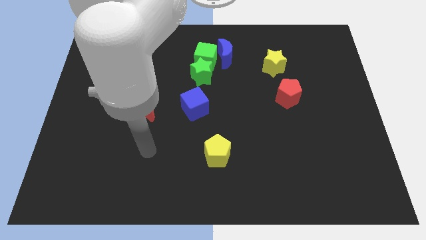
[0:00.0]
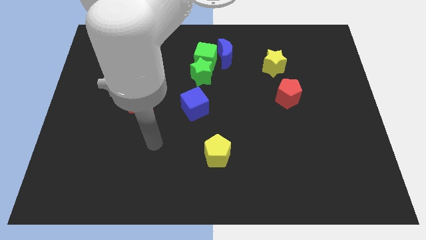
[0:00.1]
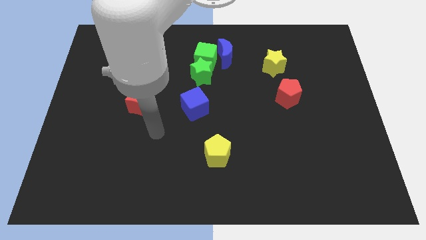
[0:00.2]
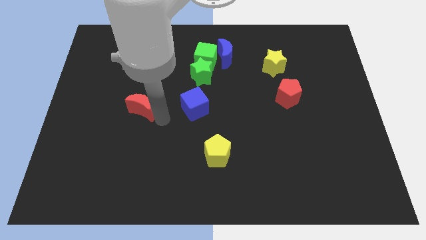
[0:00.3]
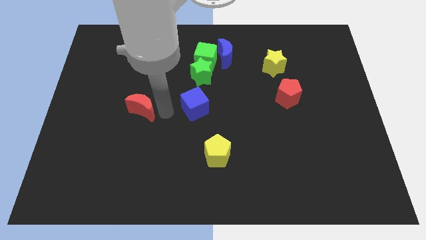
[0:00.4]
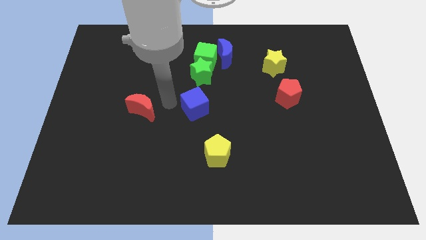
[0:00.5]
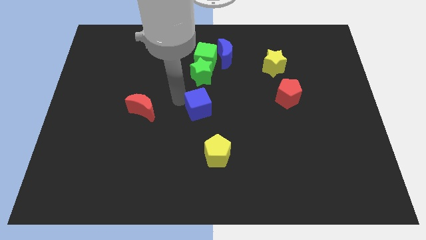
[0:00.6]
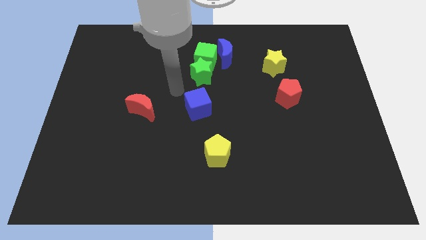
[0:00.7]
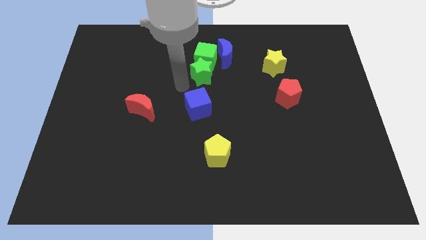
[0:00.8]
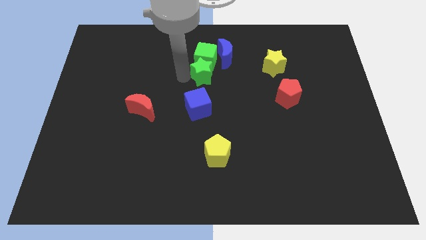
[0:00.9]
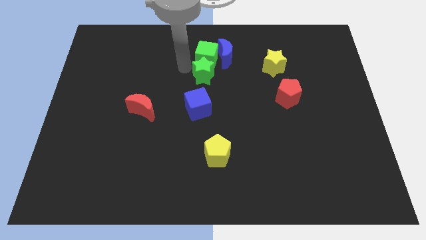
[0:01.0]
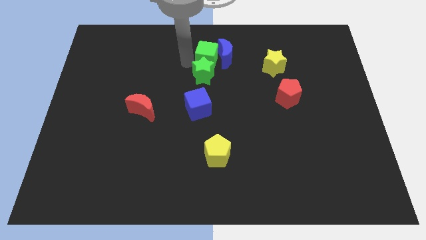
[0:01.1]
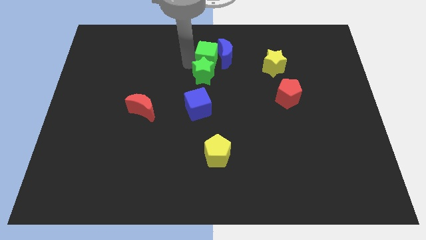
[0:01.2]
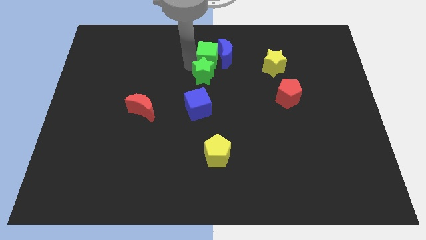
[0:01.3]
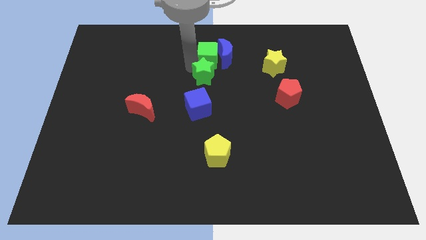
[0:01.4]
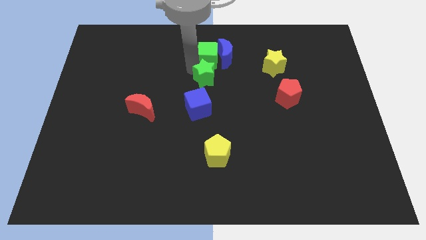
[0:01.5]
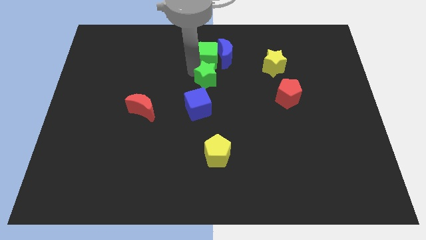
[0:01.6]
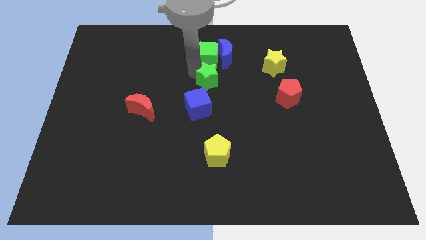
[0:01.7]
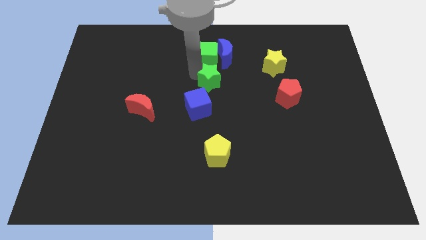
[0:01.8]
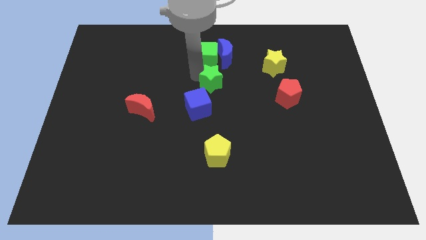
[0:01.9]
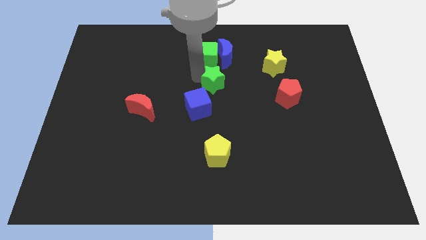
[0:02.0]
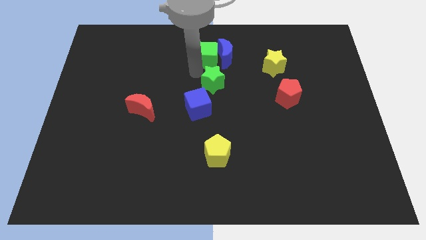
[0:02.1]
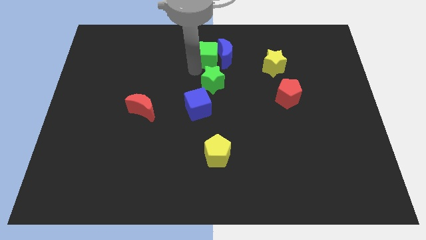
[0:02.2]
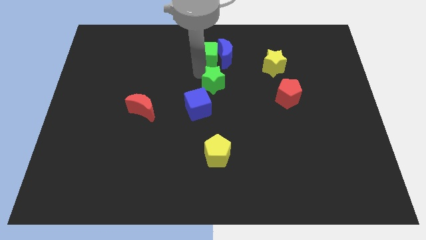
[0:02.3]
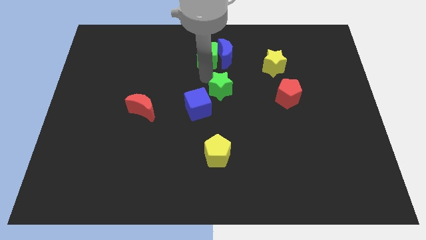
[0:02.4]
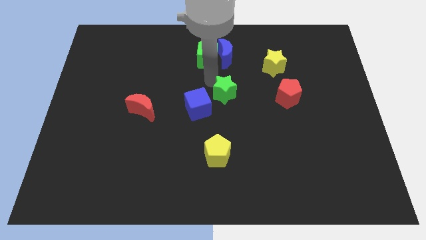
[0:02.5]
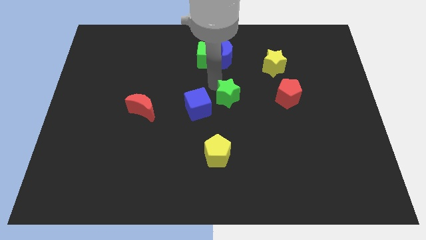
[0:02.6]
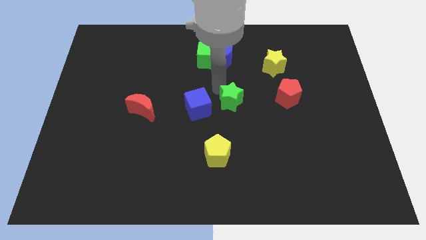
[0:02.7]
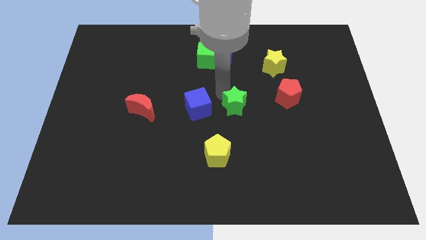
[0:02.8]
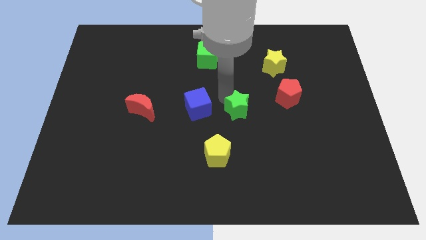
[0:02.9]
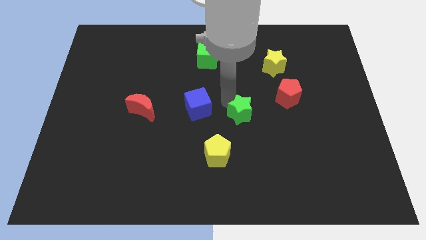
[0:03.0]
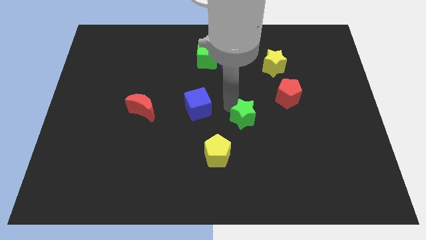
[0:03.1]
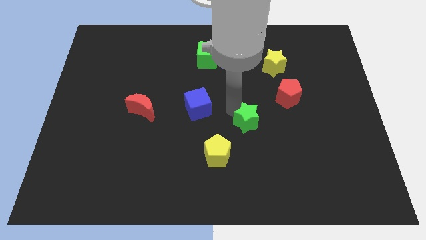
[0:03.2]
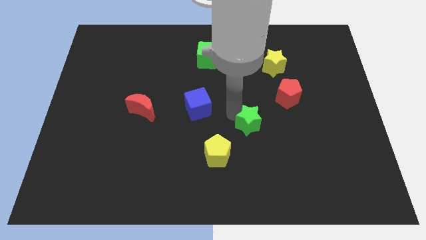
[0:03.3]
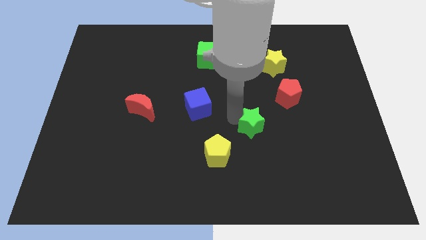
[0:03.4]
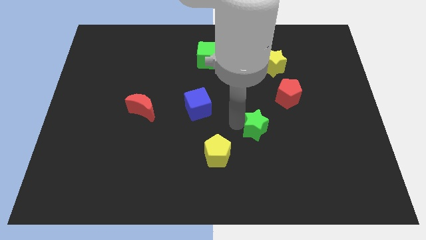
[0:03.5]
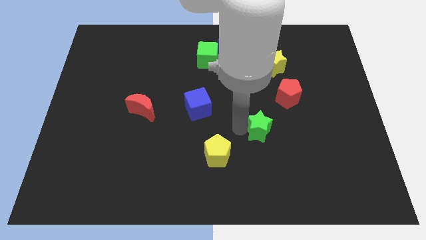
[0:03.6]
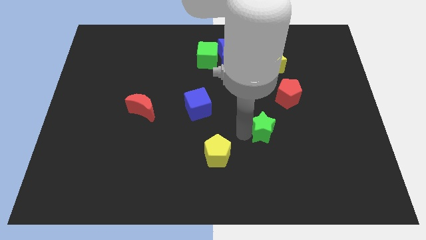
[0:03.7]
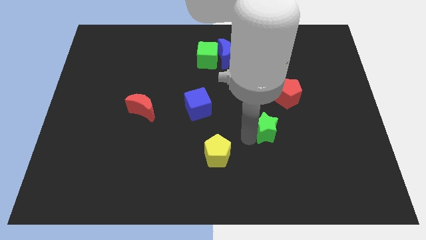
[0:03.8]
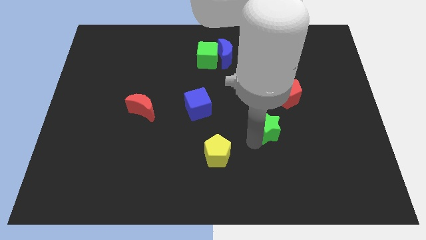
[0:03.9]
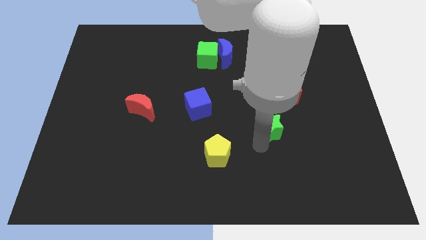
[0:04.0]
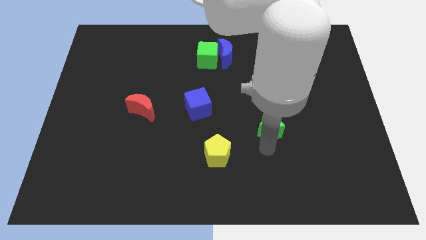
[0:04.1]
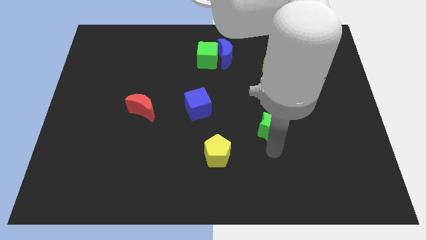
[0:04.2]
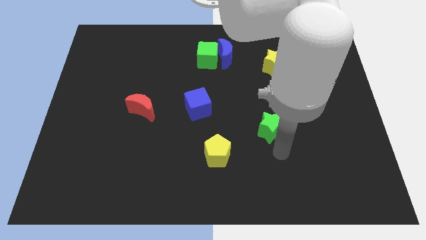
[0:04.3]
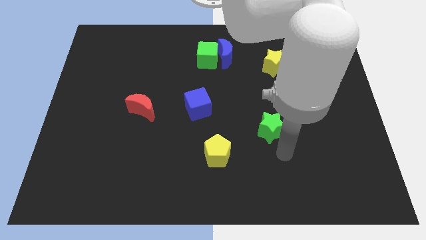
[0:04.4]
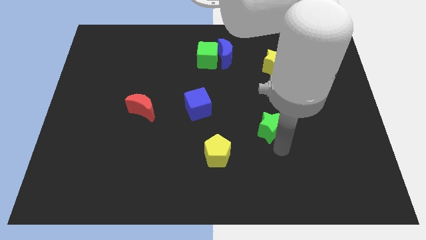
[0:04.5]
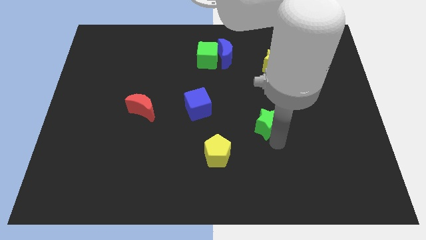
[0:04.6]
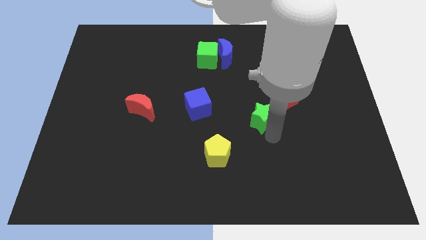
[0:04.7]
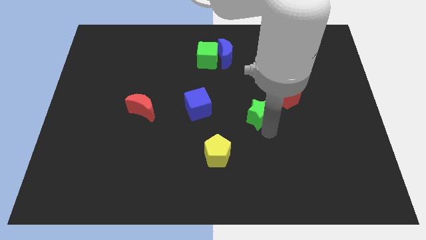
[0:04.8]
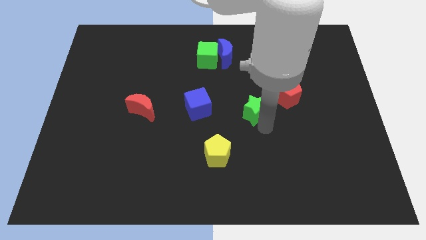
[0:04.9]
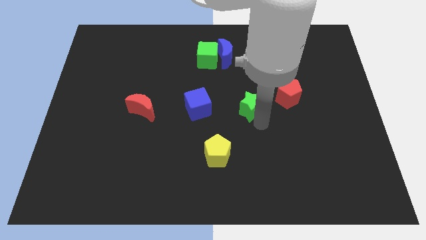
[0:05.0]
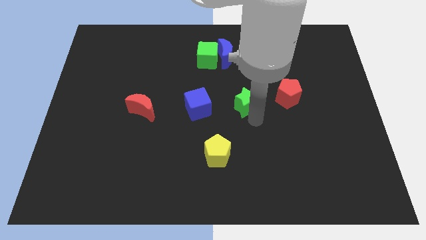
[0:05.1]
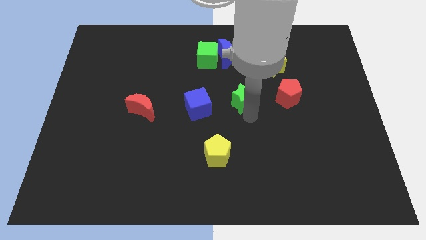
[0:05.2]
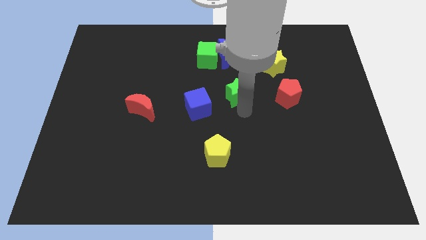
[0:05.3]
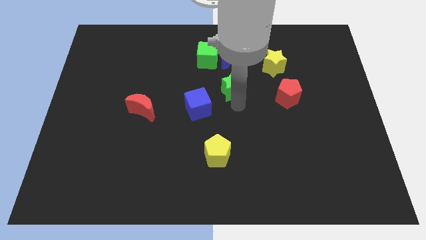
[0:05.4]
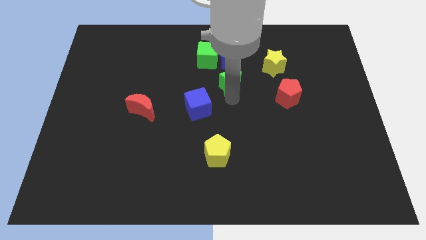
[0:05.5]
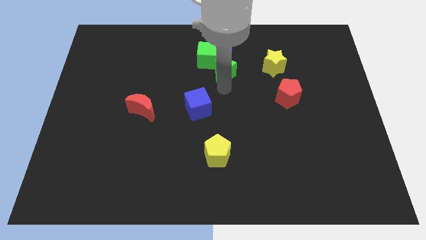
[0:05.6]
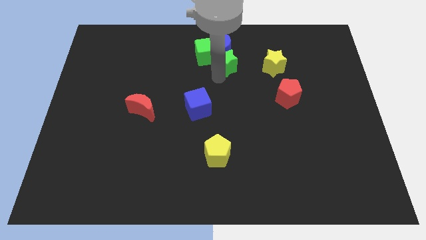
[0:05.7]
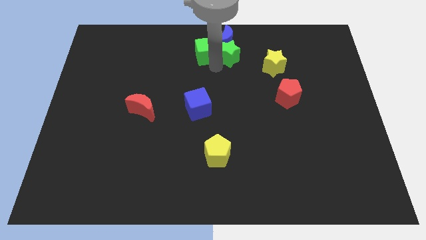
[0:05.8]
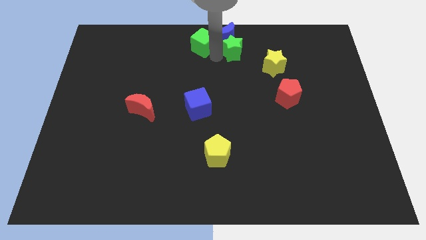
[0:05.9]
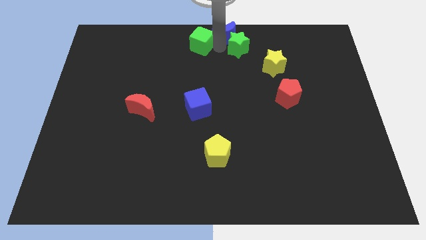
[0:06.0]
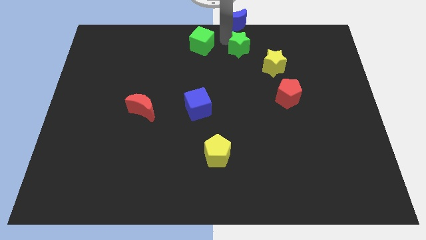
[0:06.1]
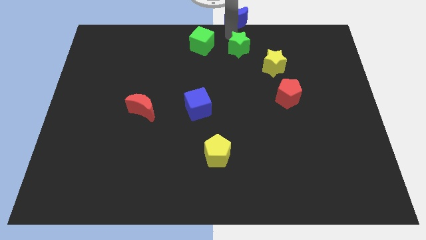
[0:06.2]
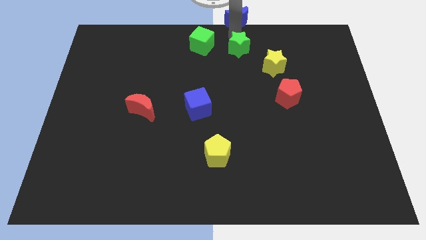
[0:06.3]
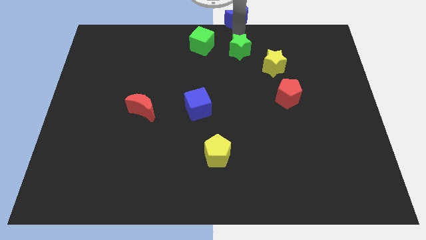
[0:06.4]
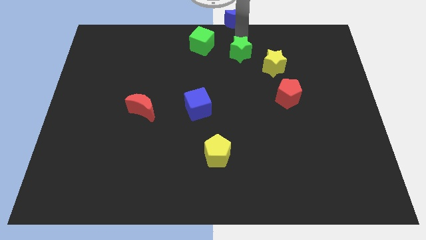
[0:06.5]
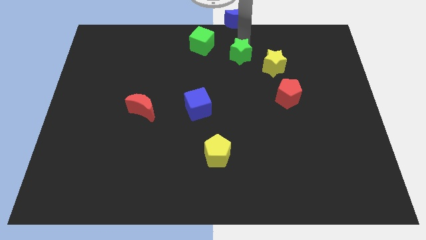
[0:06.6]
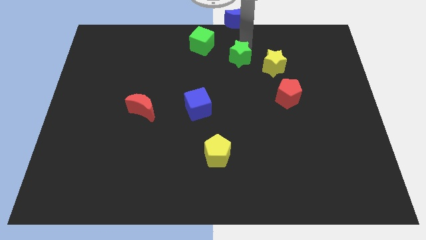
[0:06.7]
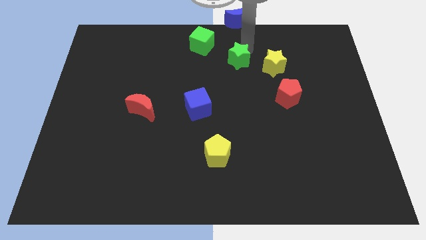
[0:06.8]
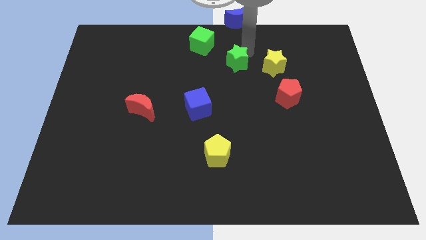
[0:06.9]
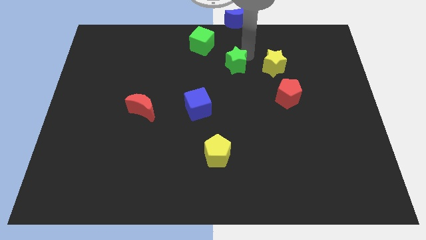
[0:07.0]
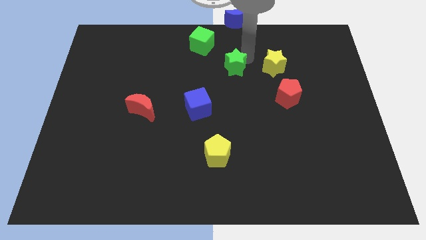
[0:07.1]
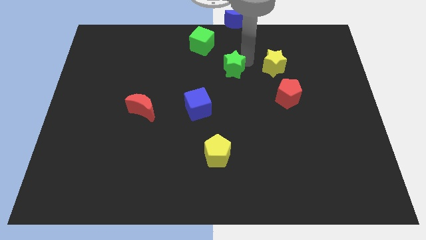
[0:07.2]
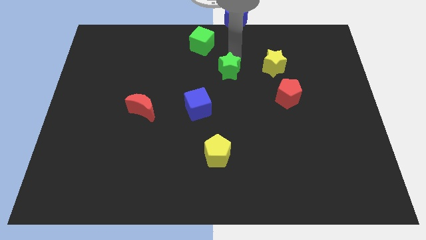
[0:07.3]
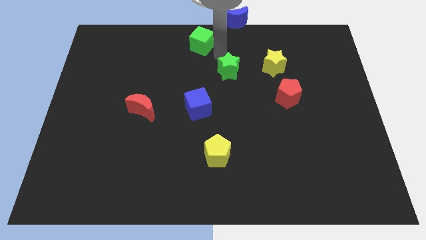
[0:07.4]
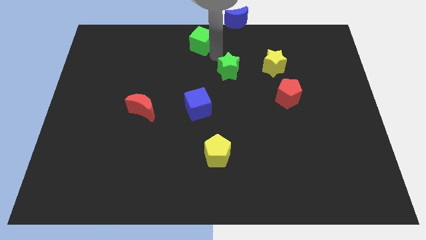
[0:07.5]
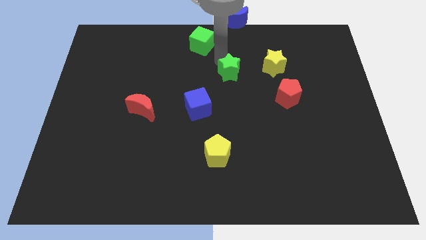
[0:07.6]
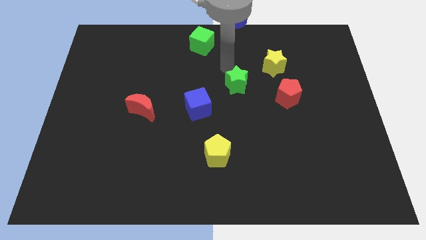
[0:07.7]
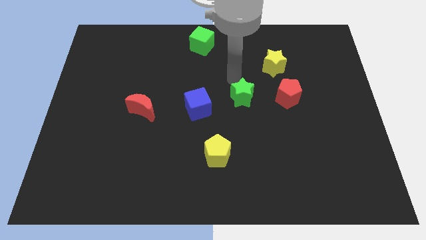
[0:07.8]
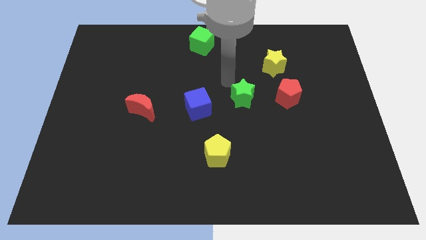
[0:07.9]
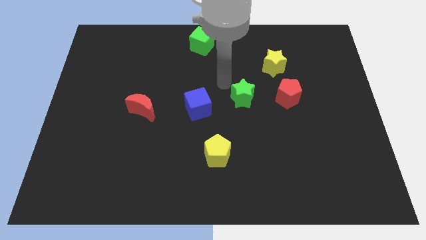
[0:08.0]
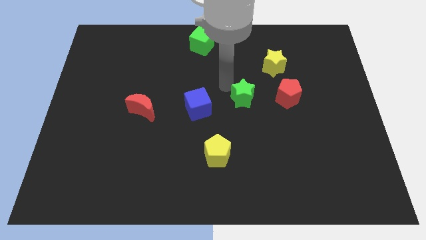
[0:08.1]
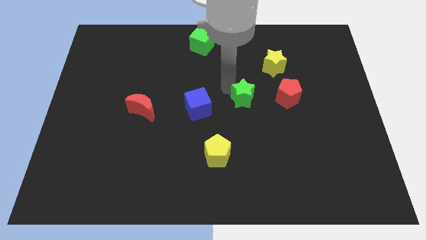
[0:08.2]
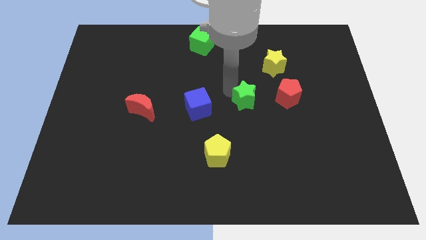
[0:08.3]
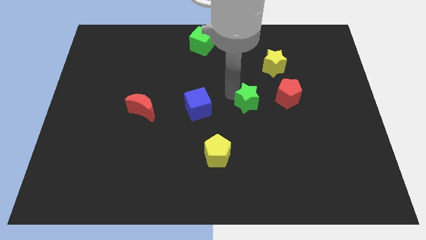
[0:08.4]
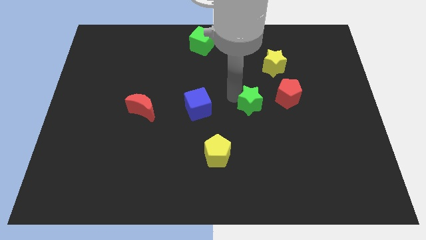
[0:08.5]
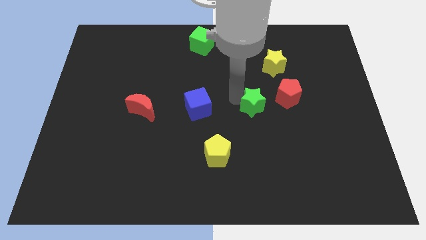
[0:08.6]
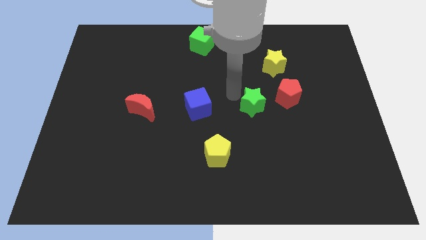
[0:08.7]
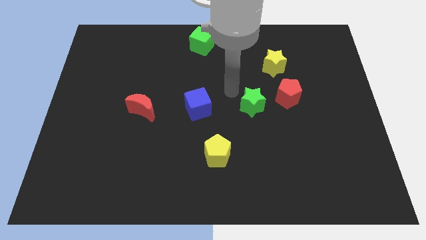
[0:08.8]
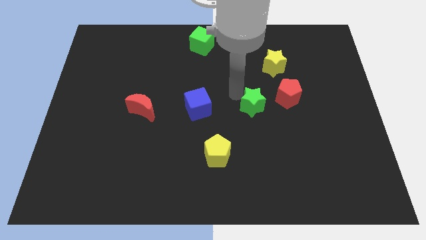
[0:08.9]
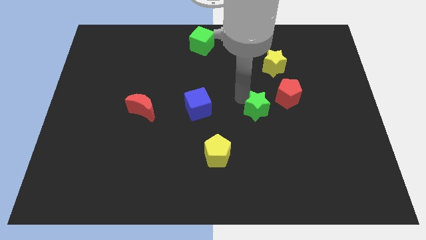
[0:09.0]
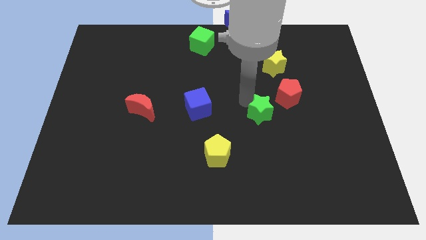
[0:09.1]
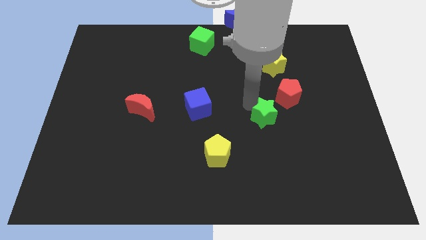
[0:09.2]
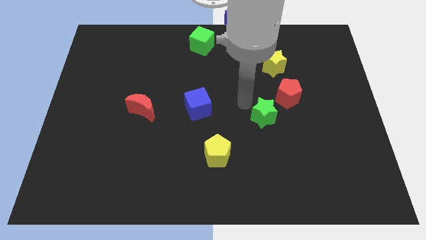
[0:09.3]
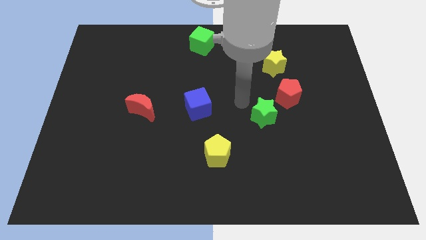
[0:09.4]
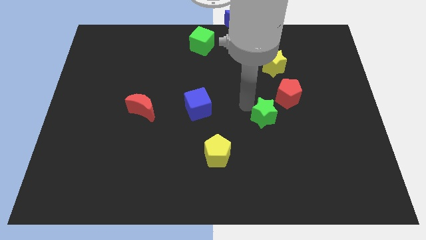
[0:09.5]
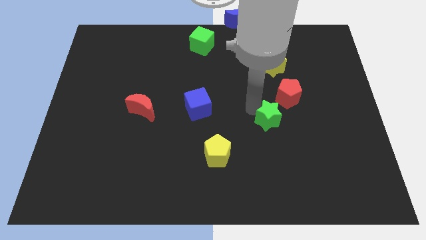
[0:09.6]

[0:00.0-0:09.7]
push the green star below the red pentagon
